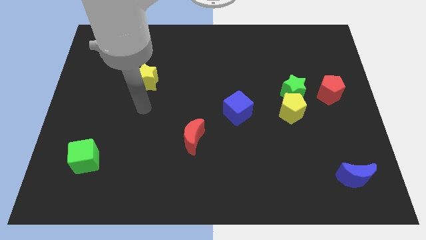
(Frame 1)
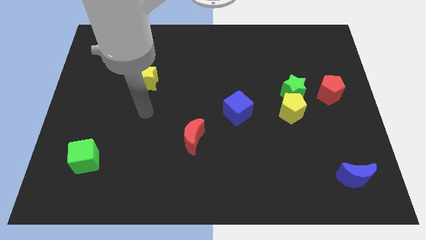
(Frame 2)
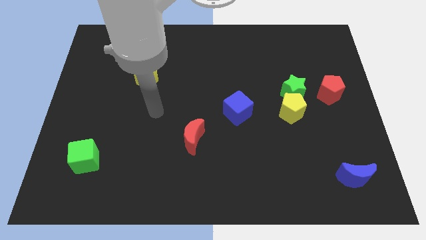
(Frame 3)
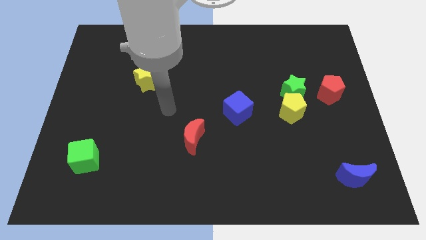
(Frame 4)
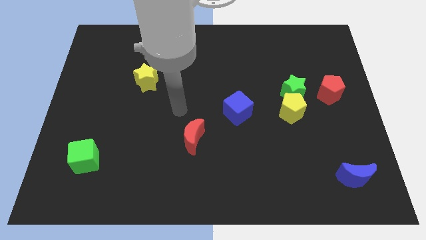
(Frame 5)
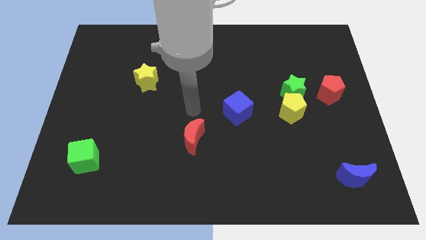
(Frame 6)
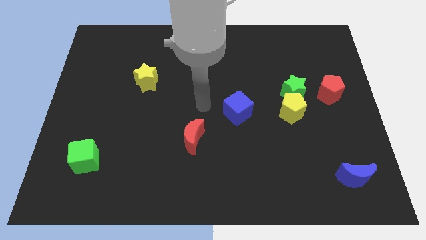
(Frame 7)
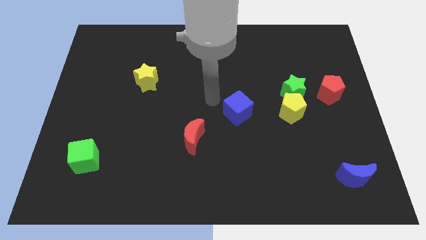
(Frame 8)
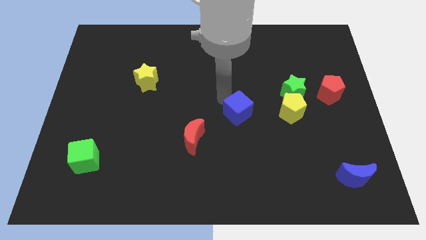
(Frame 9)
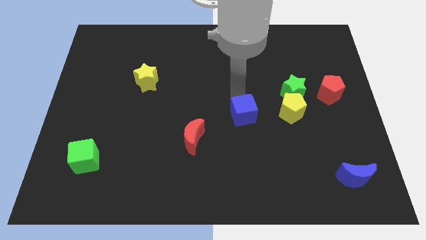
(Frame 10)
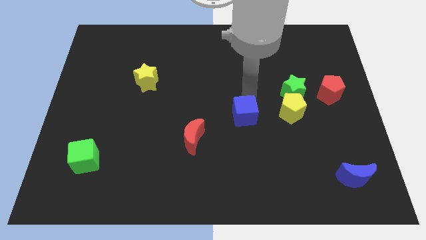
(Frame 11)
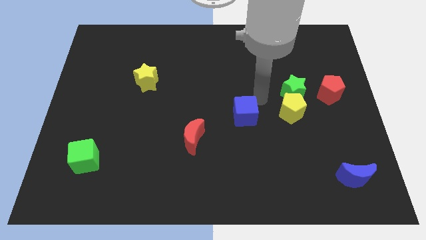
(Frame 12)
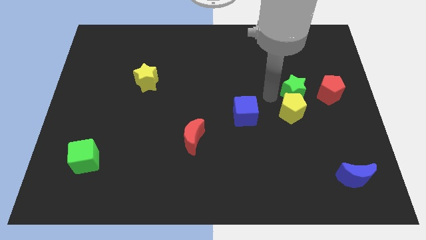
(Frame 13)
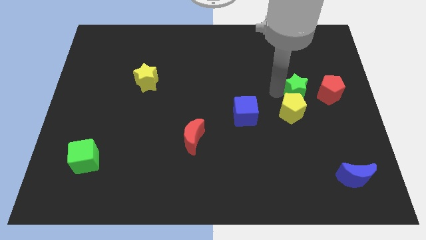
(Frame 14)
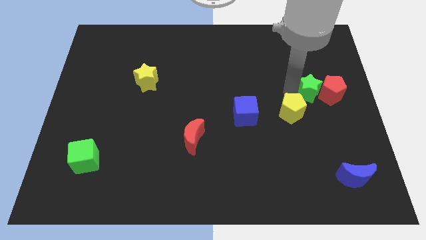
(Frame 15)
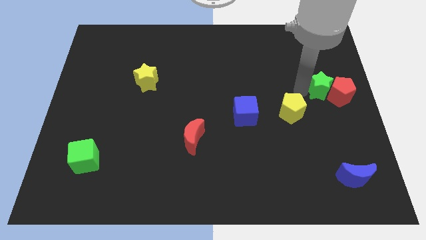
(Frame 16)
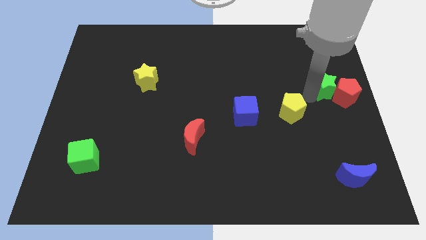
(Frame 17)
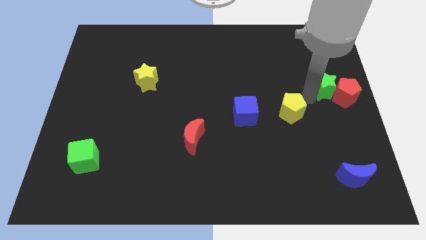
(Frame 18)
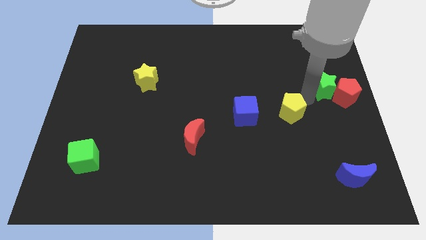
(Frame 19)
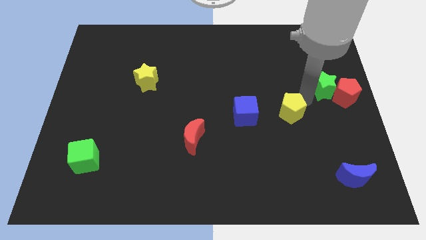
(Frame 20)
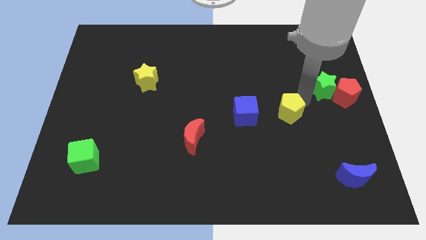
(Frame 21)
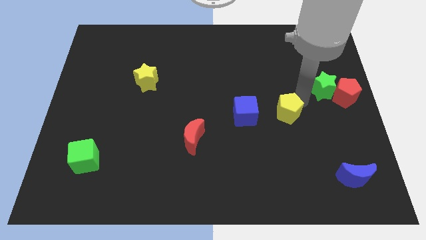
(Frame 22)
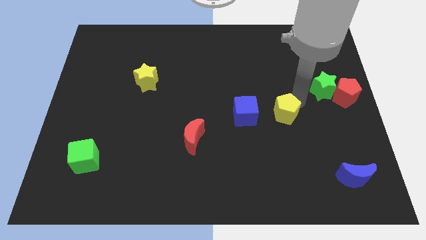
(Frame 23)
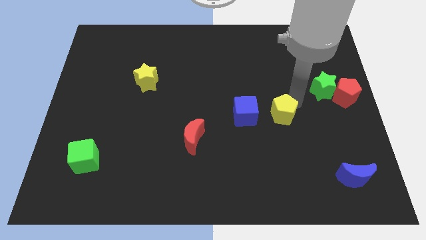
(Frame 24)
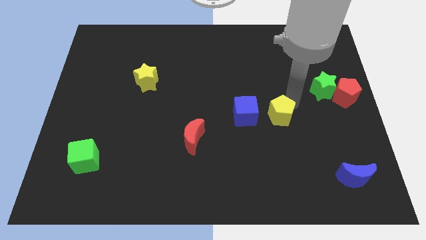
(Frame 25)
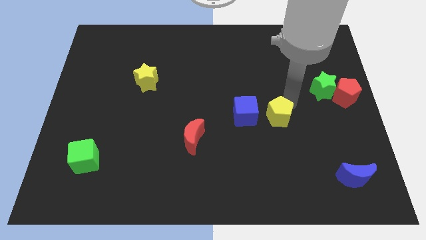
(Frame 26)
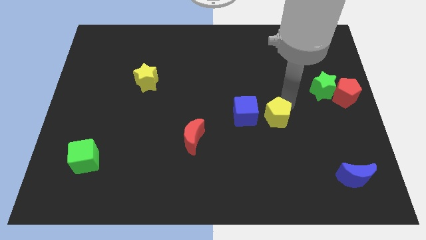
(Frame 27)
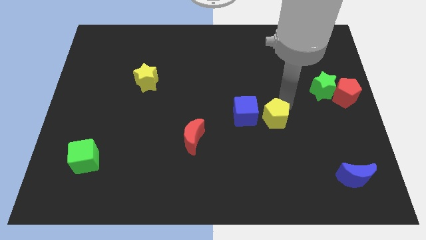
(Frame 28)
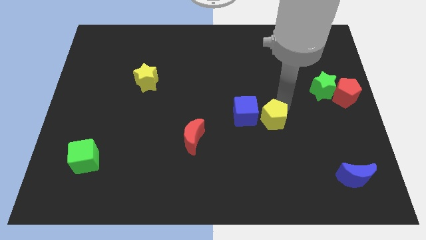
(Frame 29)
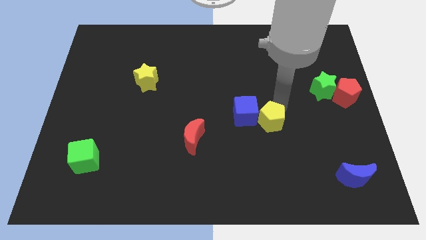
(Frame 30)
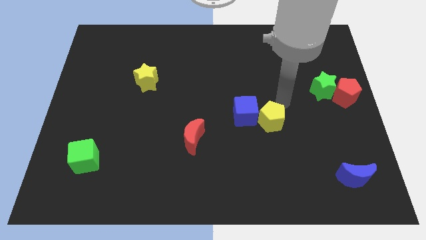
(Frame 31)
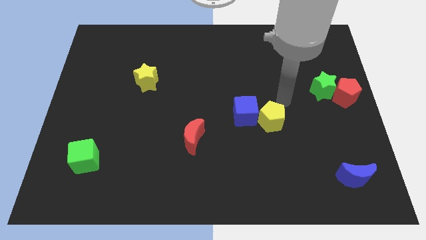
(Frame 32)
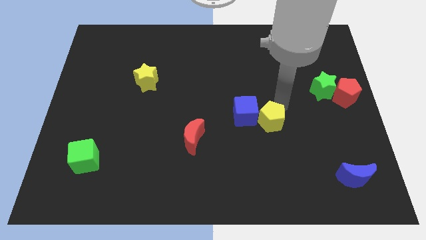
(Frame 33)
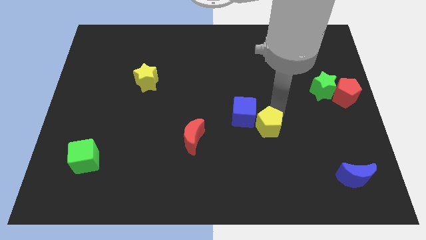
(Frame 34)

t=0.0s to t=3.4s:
slide the yellow pentagon down and to the left a little

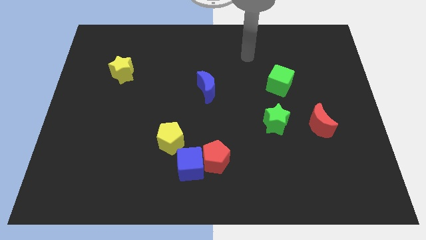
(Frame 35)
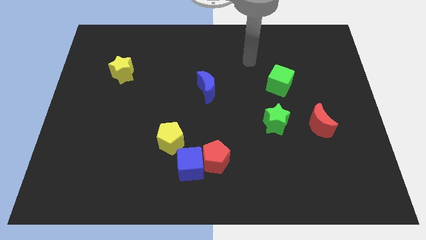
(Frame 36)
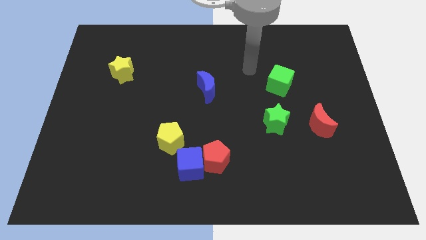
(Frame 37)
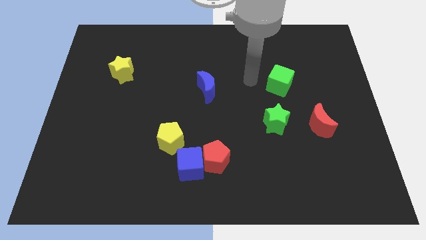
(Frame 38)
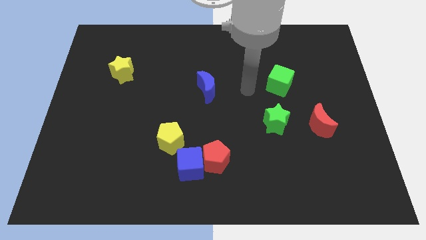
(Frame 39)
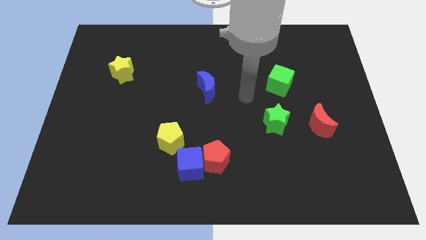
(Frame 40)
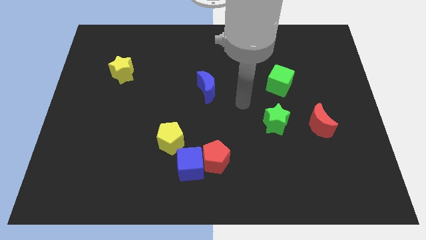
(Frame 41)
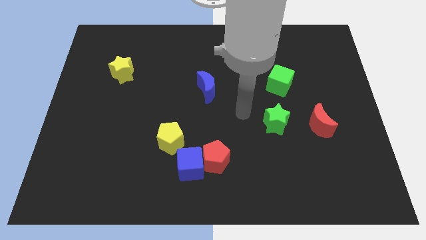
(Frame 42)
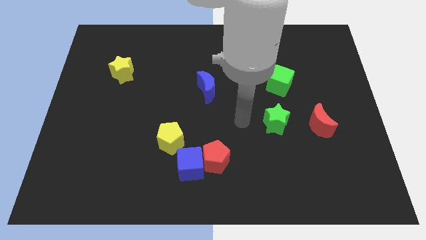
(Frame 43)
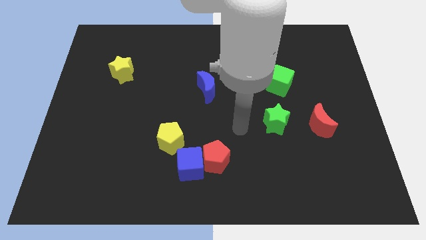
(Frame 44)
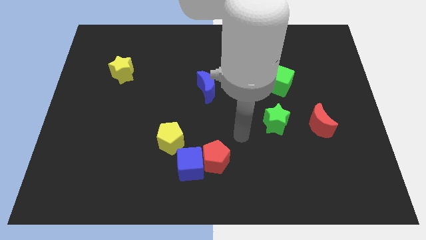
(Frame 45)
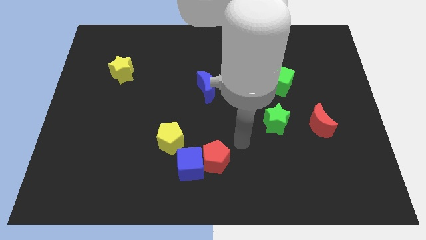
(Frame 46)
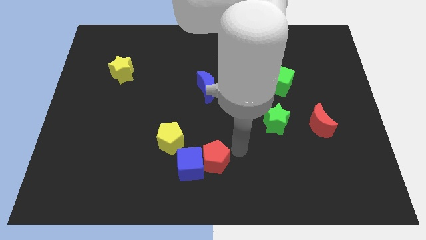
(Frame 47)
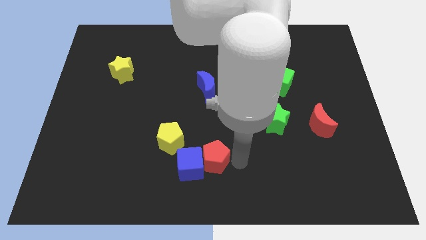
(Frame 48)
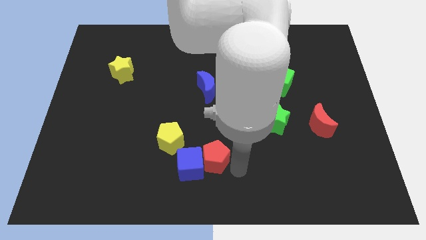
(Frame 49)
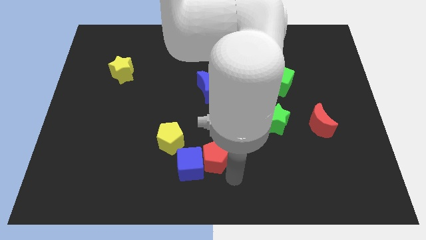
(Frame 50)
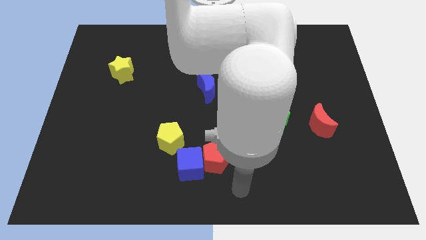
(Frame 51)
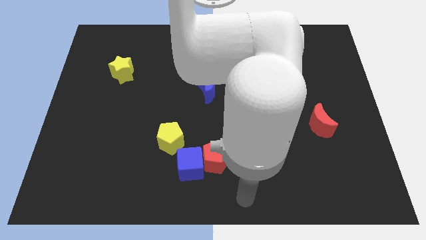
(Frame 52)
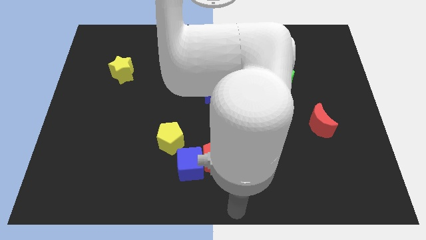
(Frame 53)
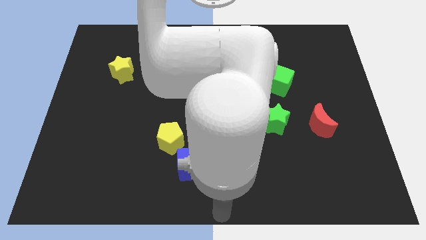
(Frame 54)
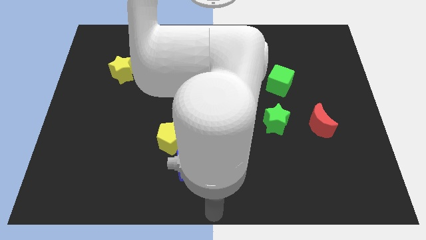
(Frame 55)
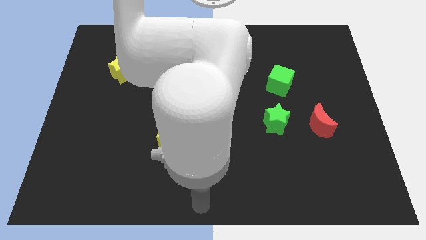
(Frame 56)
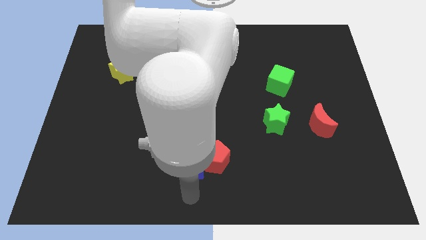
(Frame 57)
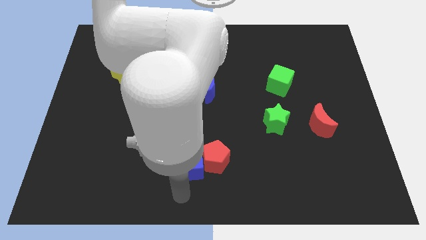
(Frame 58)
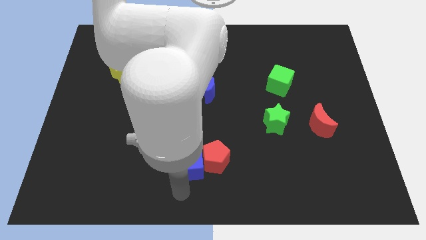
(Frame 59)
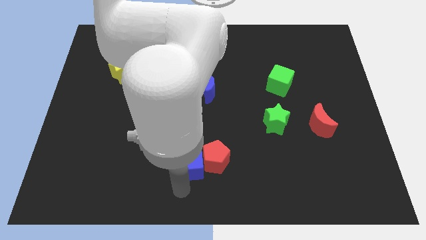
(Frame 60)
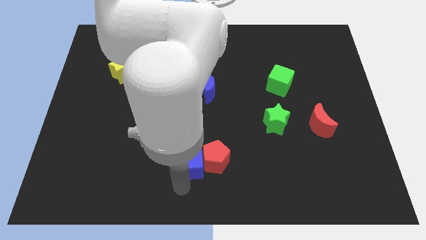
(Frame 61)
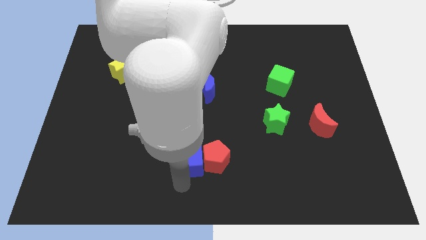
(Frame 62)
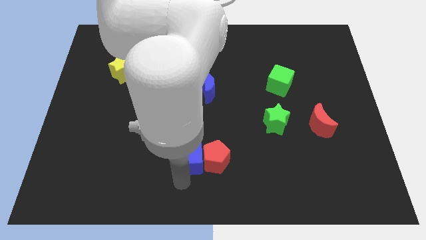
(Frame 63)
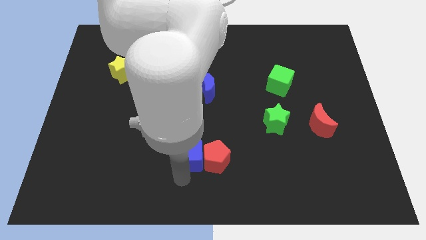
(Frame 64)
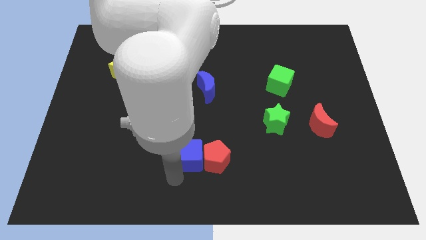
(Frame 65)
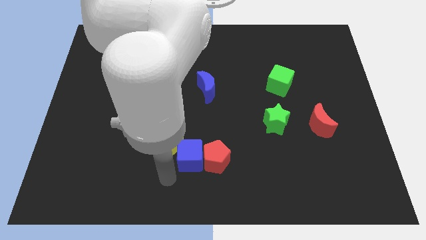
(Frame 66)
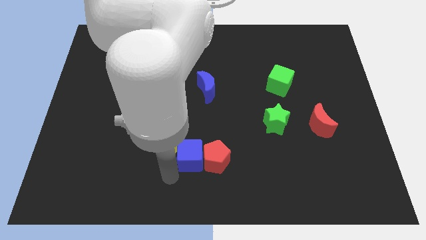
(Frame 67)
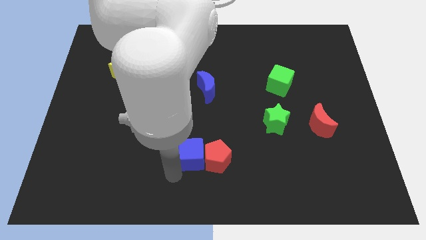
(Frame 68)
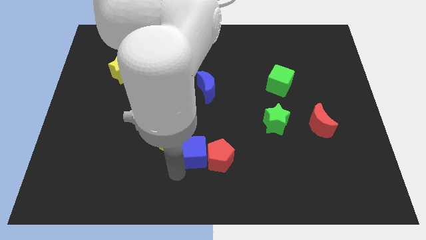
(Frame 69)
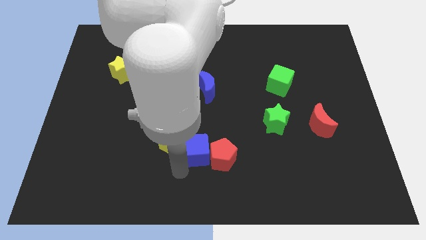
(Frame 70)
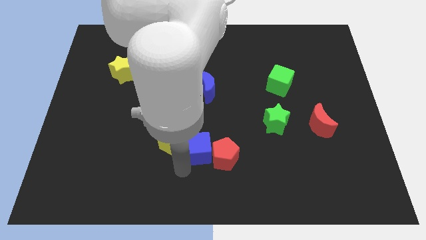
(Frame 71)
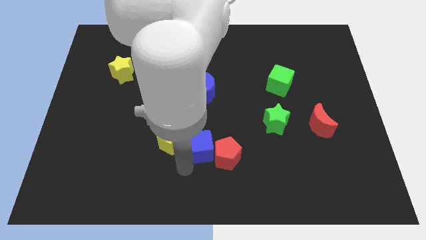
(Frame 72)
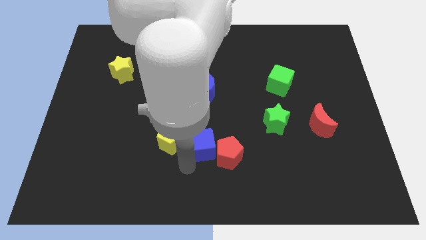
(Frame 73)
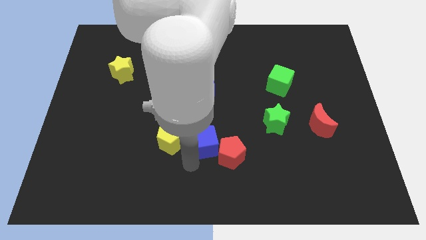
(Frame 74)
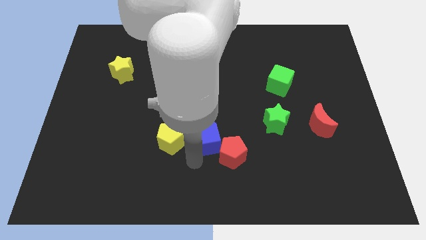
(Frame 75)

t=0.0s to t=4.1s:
push the blue cube upwards and then to the right a little bit

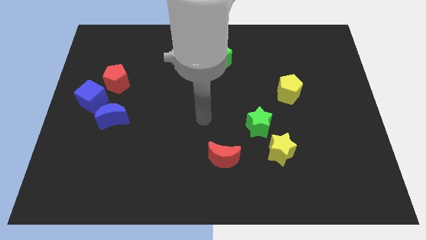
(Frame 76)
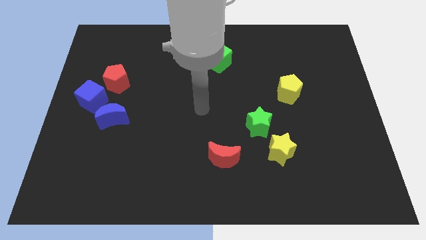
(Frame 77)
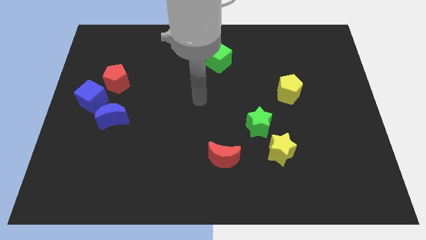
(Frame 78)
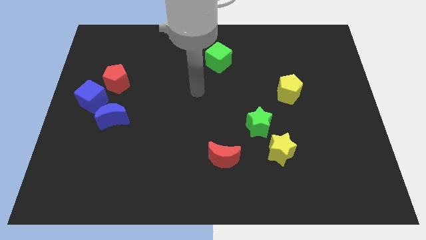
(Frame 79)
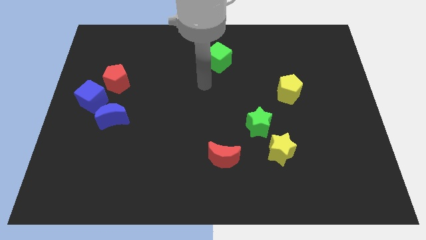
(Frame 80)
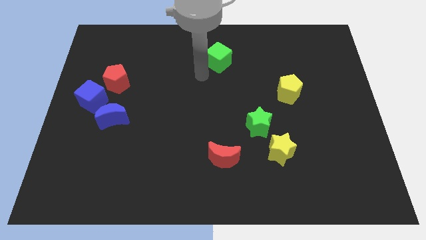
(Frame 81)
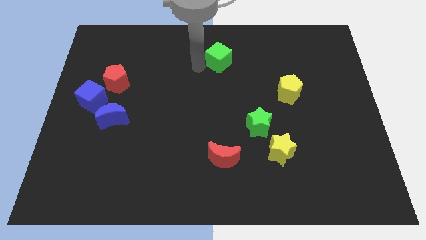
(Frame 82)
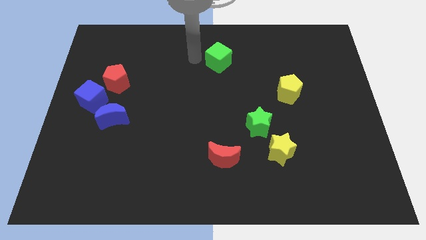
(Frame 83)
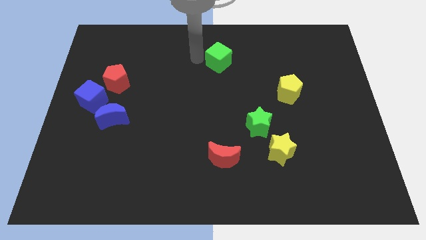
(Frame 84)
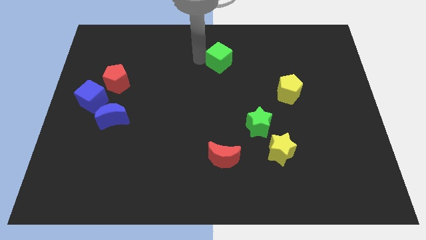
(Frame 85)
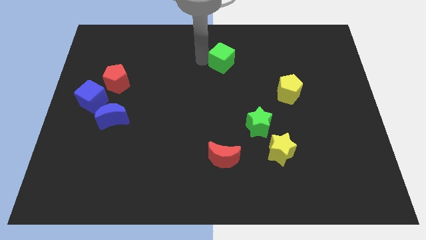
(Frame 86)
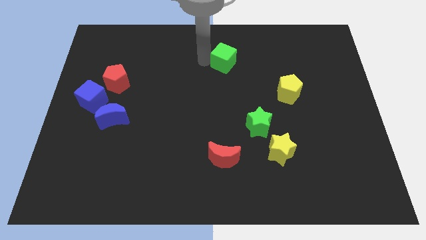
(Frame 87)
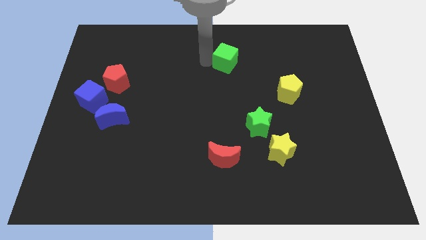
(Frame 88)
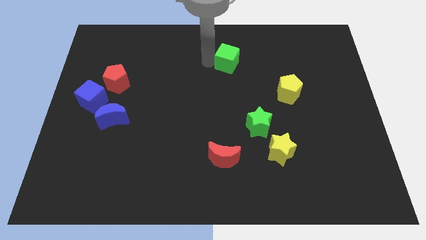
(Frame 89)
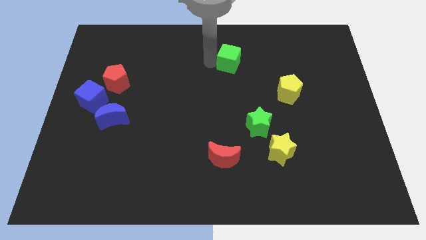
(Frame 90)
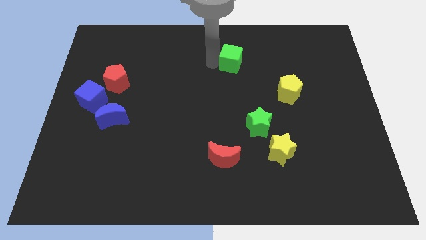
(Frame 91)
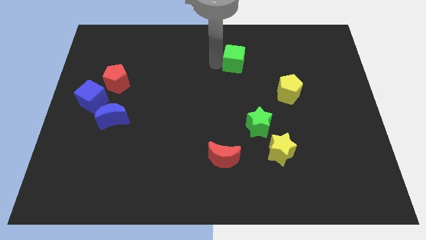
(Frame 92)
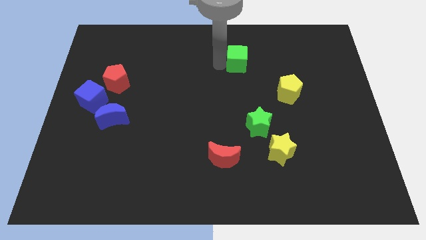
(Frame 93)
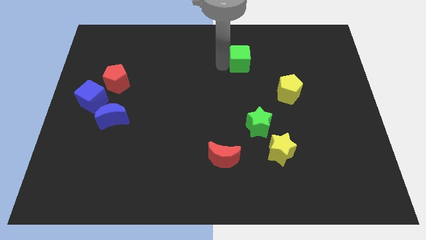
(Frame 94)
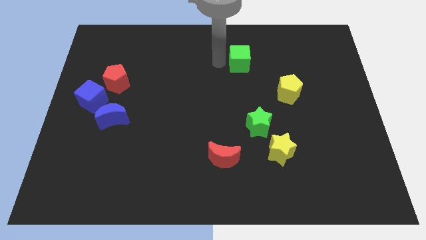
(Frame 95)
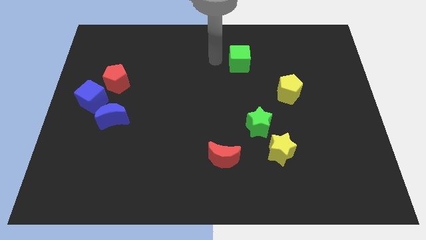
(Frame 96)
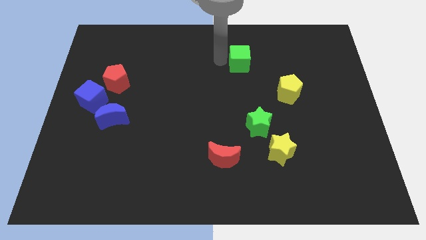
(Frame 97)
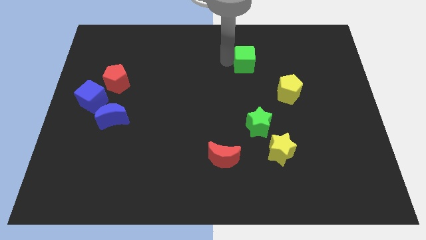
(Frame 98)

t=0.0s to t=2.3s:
move the green cube slightly right
